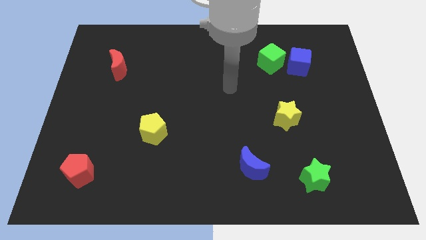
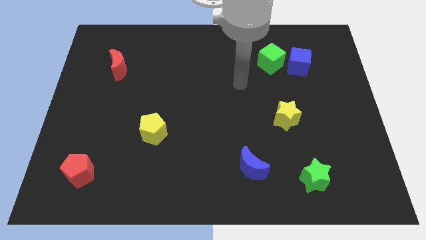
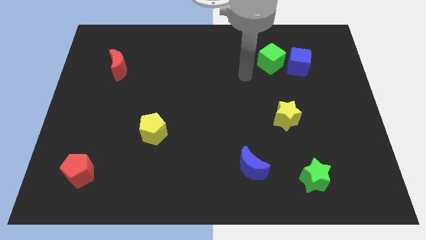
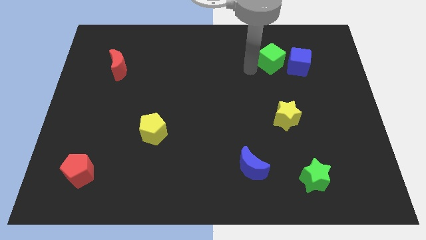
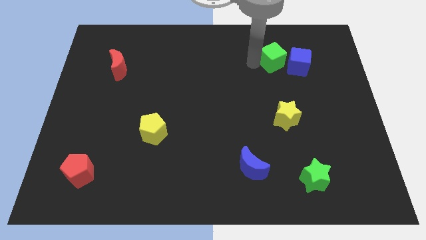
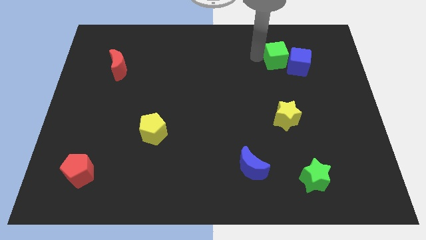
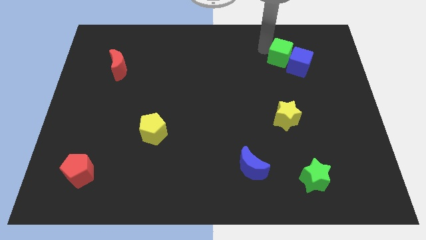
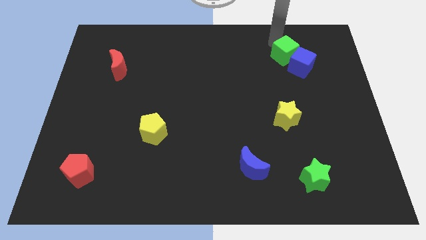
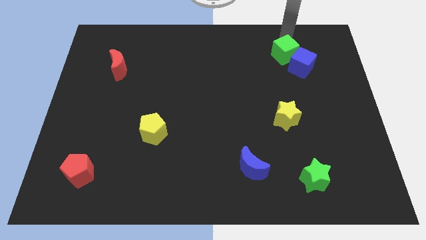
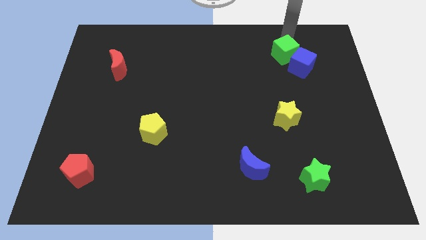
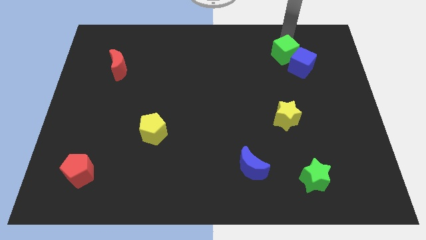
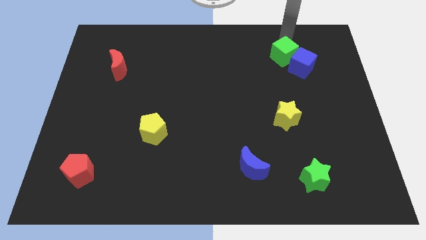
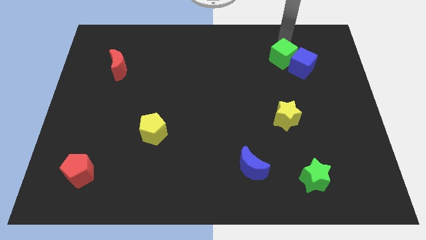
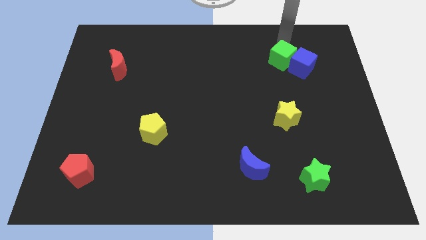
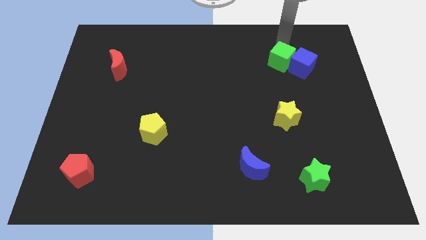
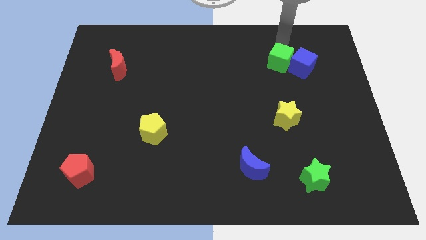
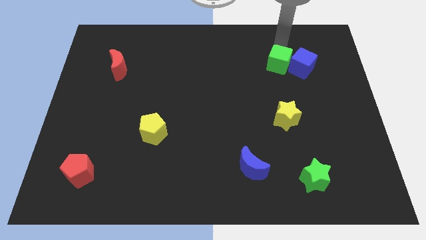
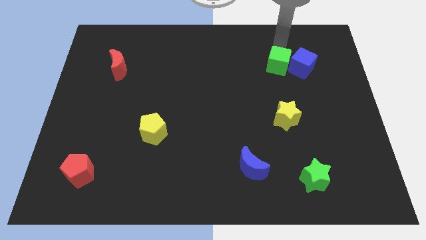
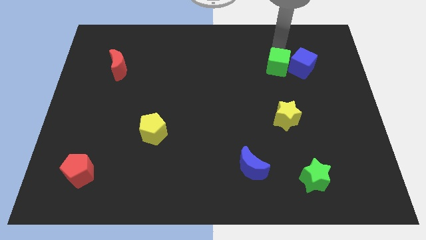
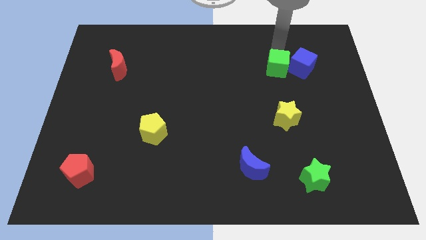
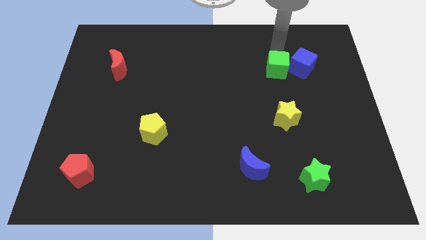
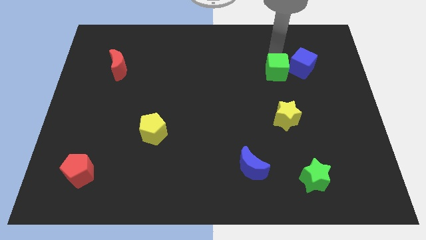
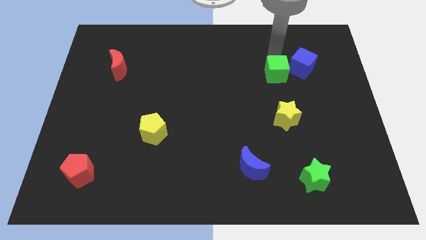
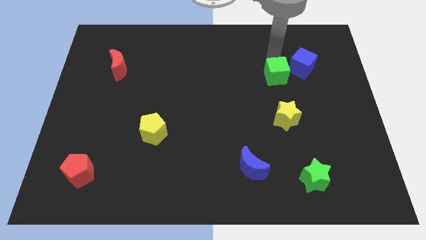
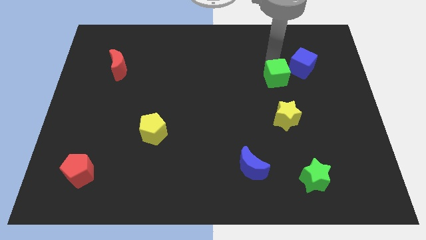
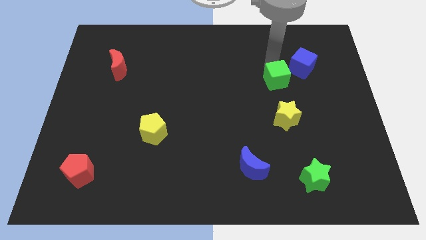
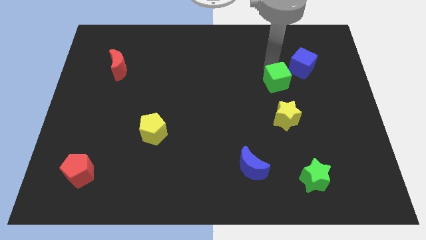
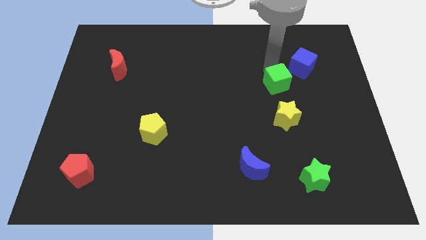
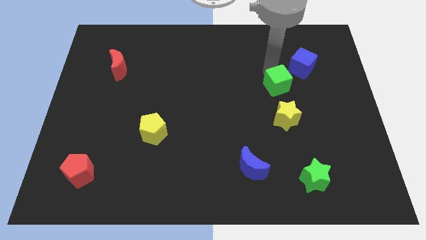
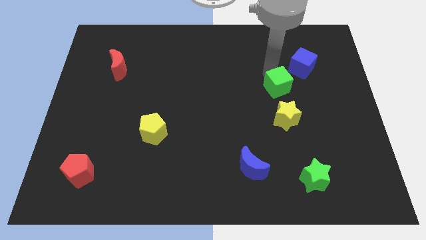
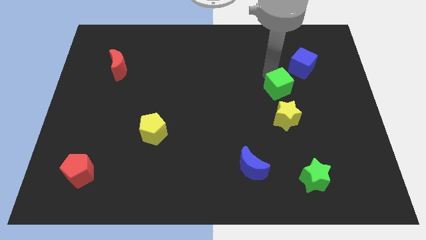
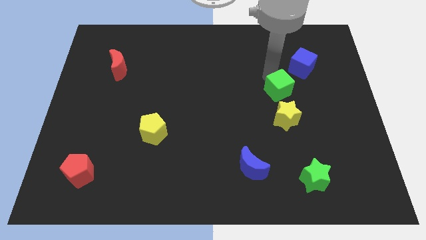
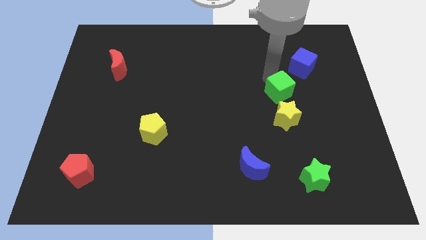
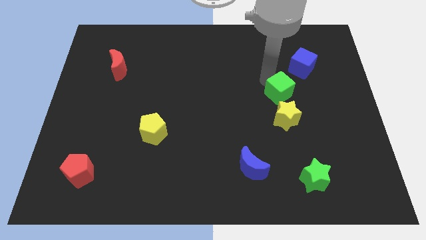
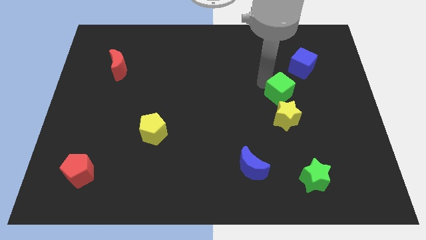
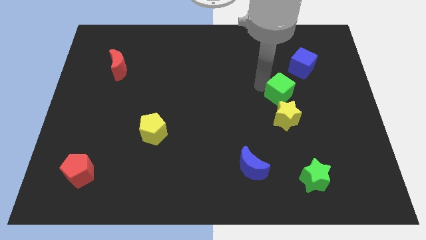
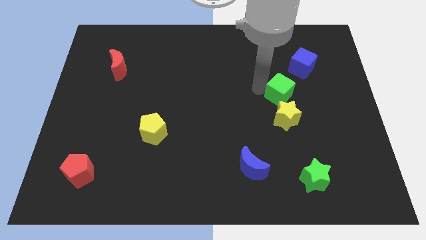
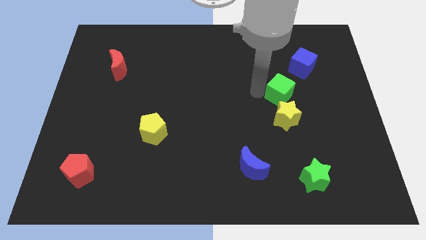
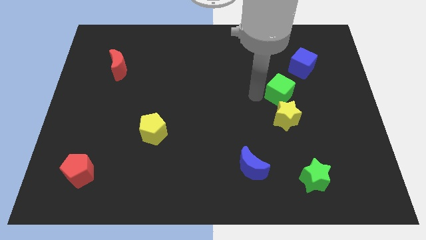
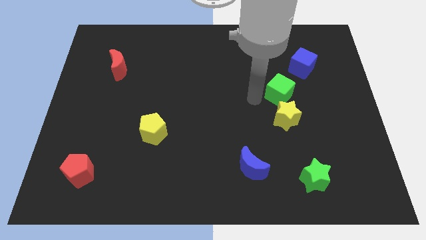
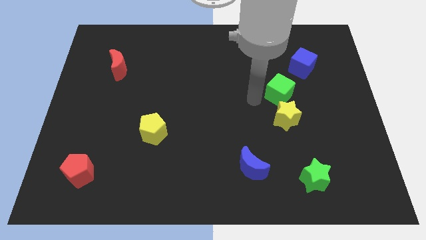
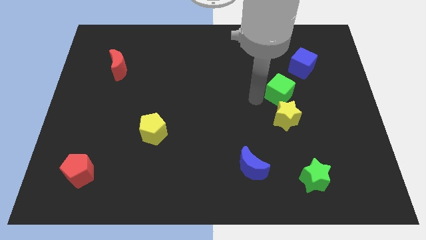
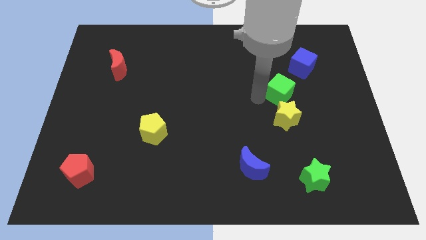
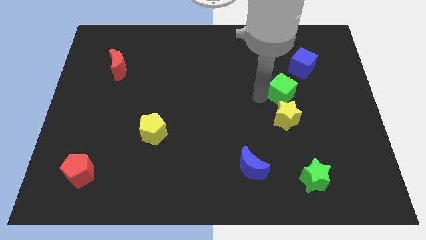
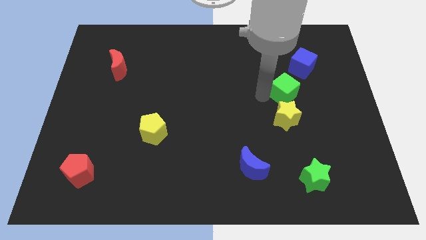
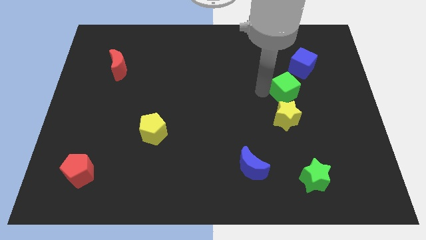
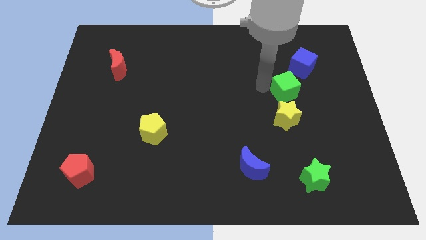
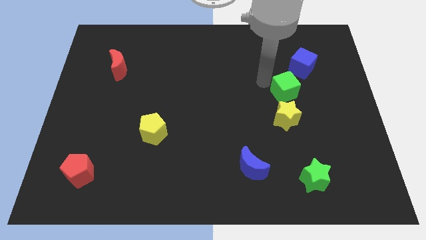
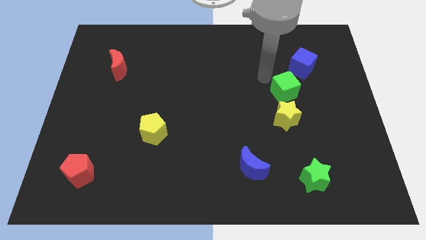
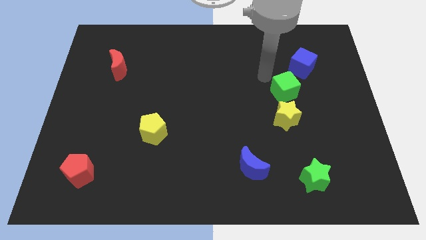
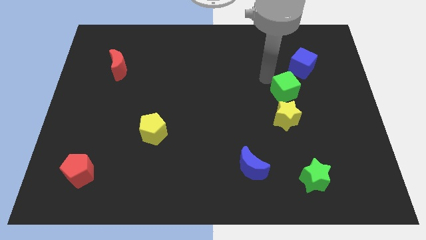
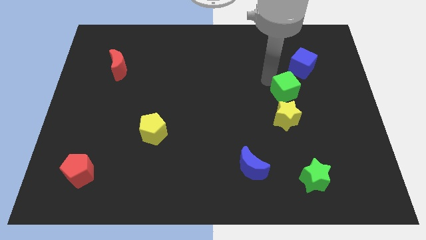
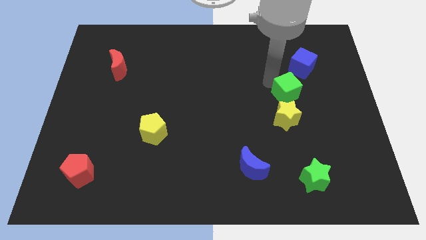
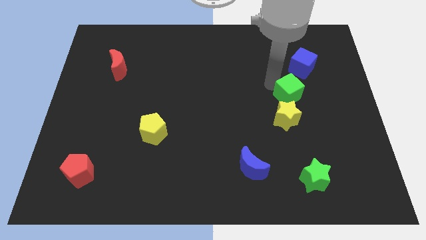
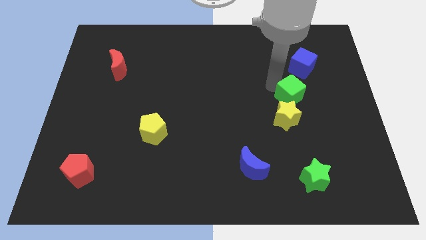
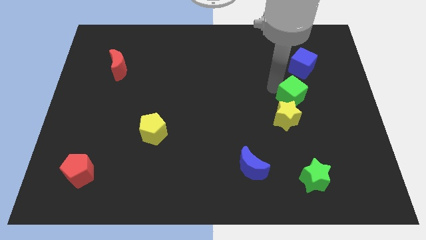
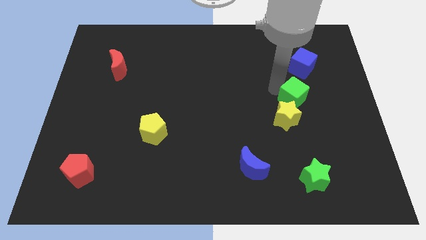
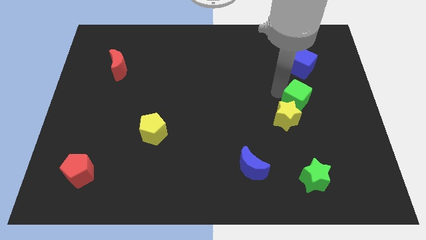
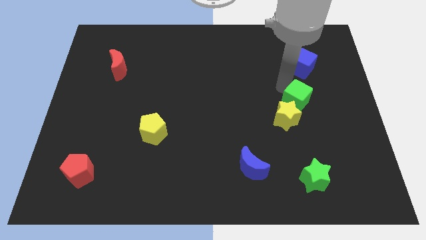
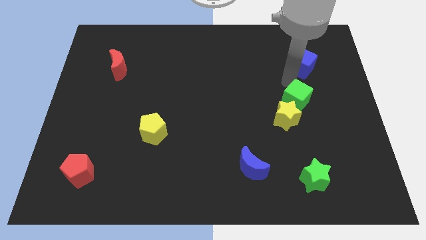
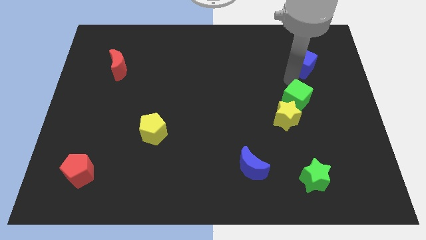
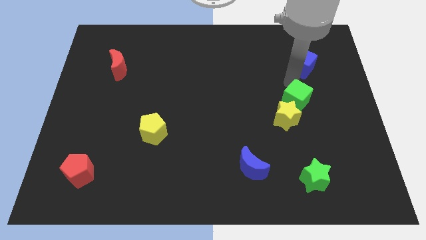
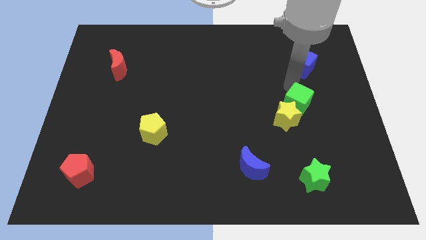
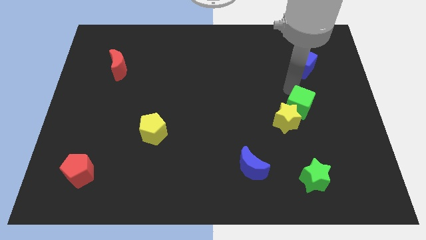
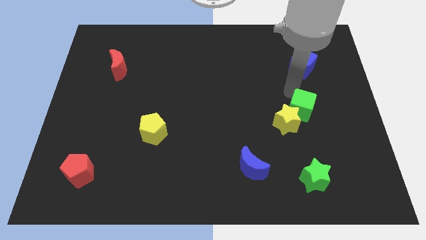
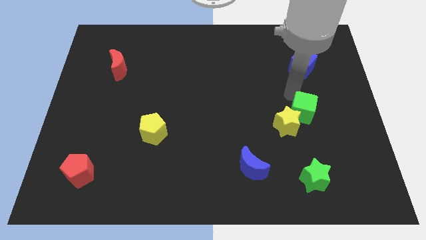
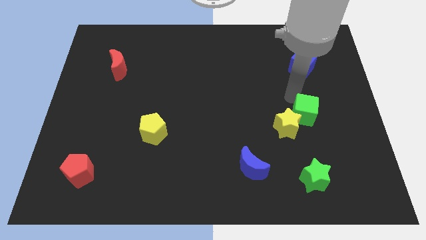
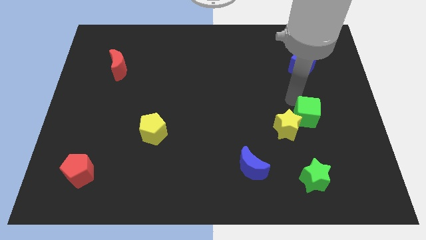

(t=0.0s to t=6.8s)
put the green cube to the top side of the green star
